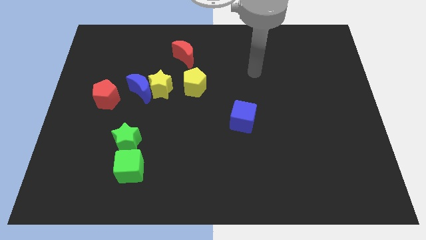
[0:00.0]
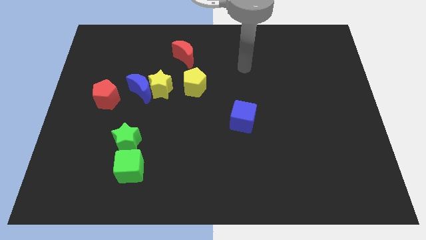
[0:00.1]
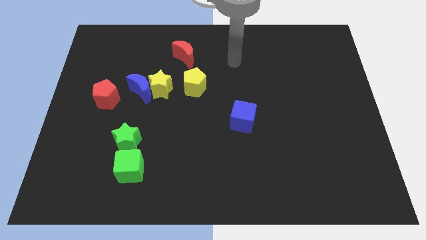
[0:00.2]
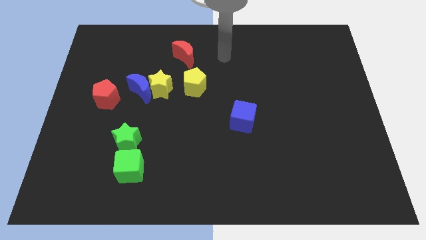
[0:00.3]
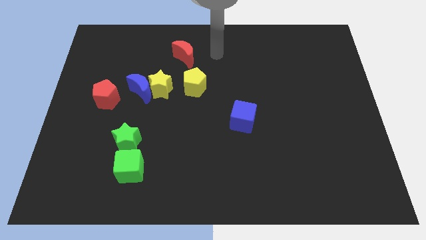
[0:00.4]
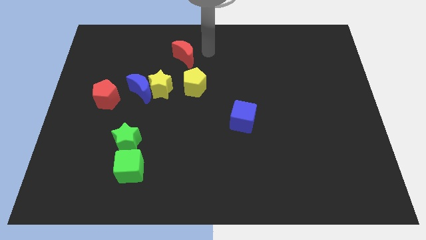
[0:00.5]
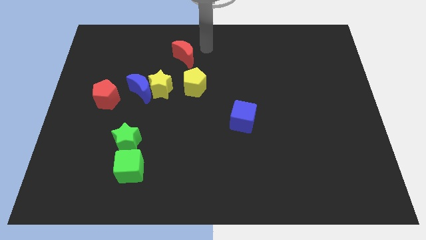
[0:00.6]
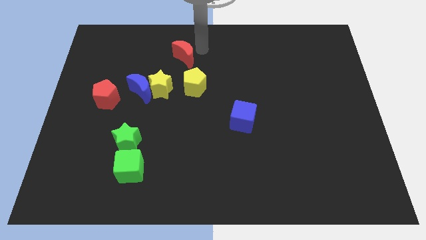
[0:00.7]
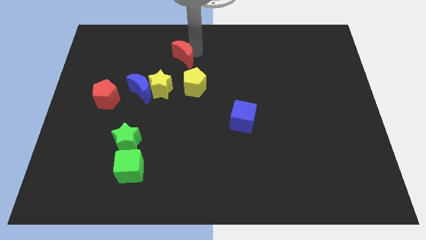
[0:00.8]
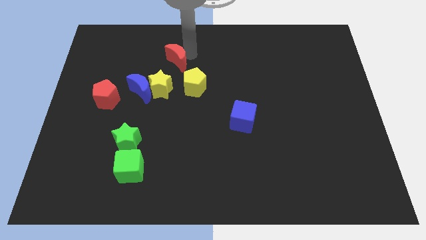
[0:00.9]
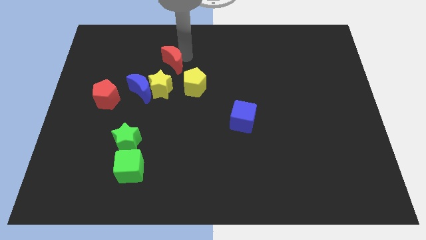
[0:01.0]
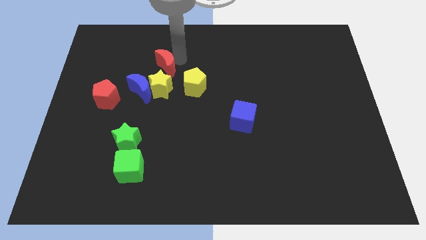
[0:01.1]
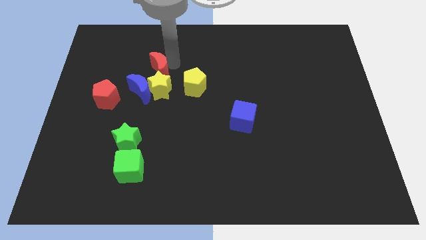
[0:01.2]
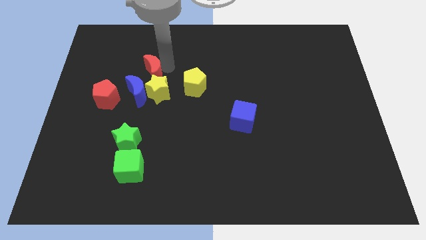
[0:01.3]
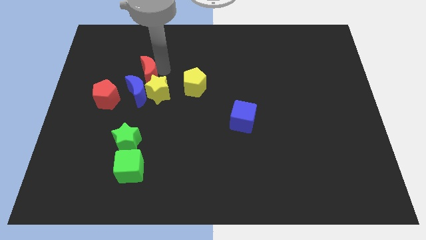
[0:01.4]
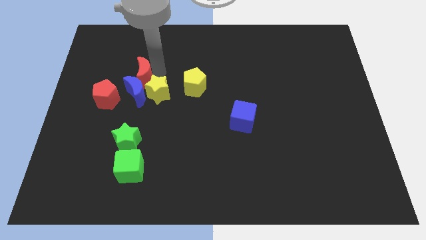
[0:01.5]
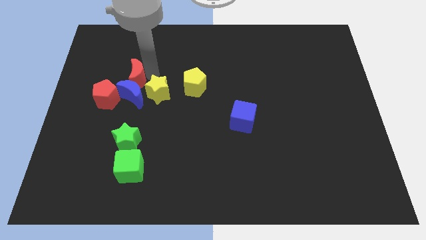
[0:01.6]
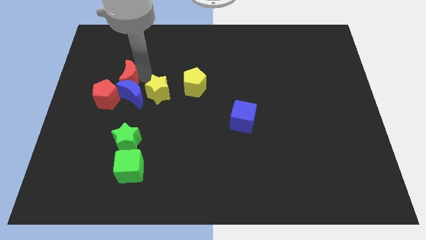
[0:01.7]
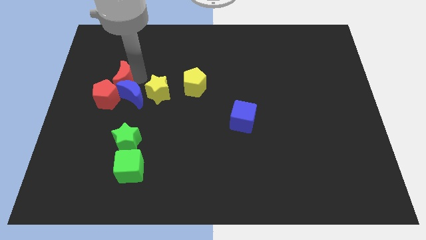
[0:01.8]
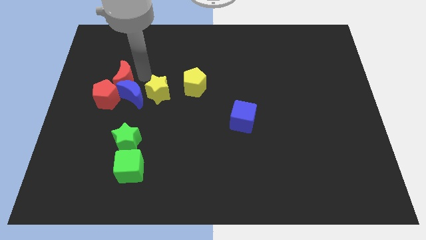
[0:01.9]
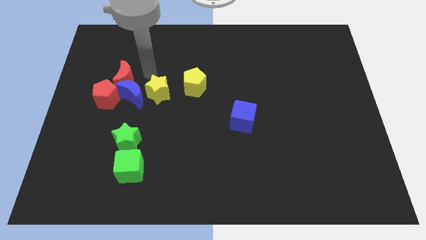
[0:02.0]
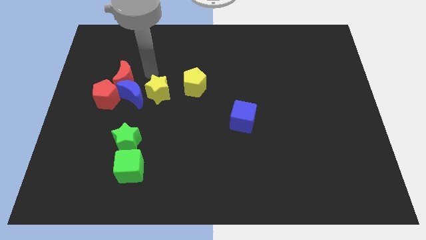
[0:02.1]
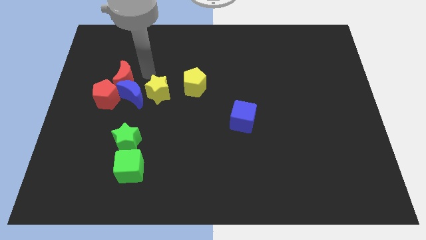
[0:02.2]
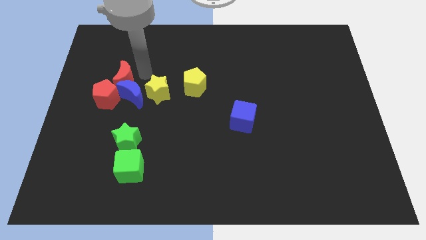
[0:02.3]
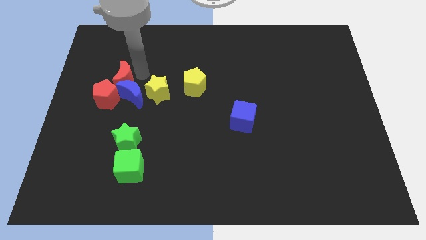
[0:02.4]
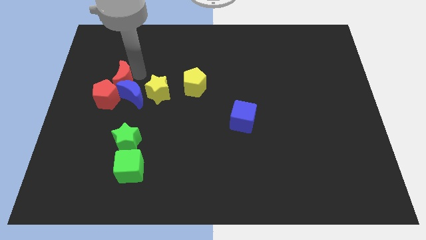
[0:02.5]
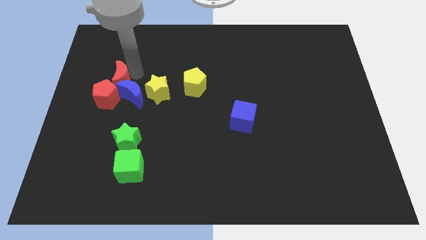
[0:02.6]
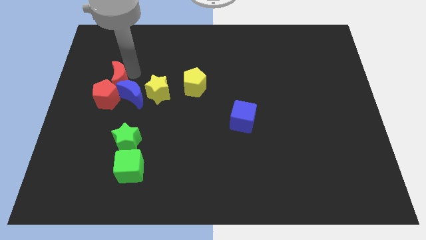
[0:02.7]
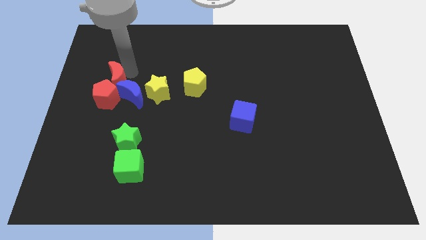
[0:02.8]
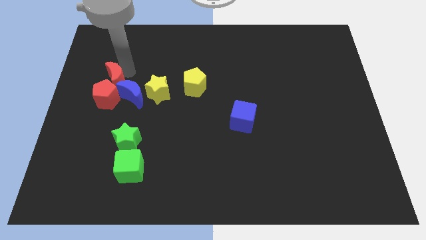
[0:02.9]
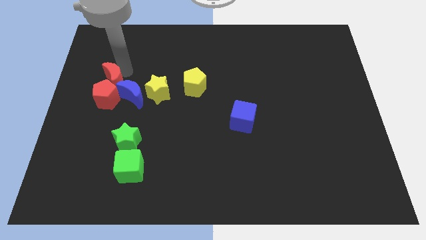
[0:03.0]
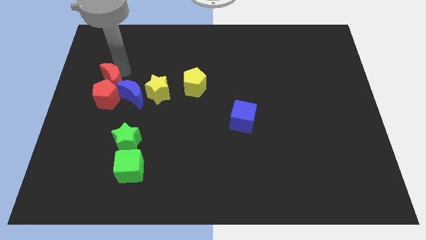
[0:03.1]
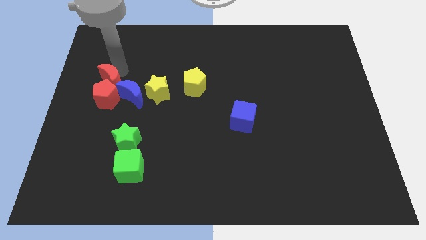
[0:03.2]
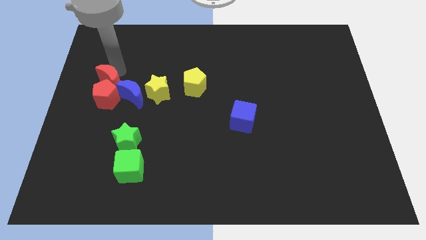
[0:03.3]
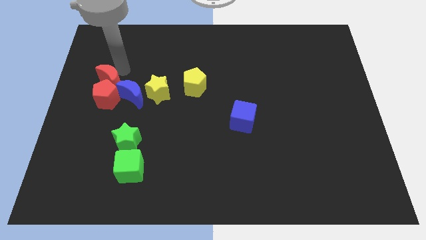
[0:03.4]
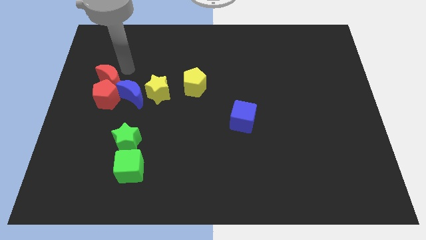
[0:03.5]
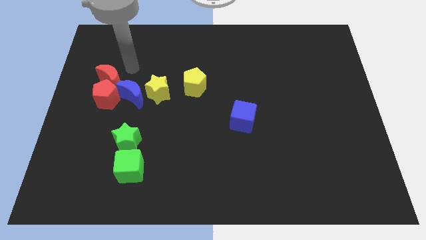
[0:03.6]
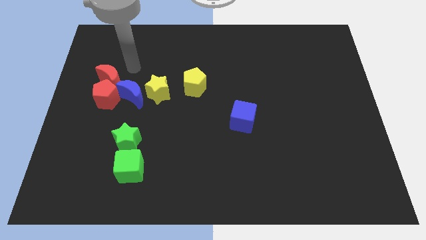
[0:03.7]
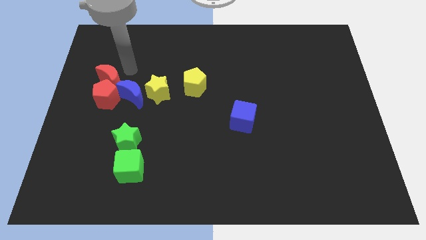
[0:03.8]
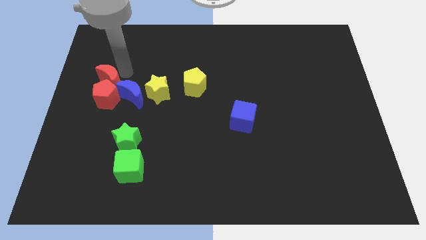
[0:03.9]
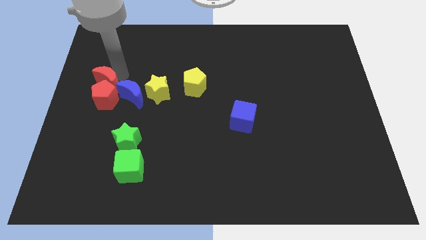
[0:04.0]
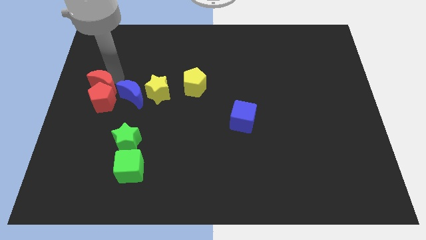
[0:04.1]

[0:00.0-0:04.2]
put the red moon to the center left

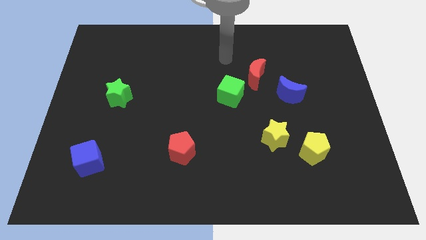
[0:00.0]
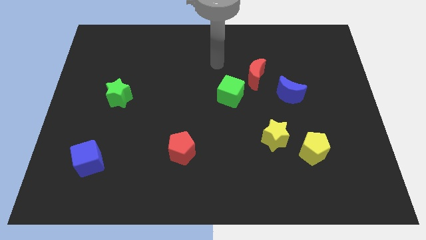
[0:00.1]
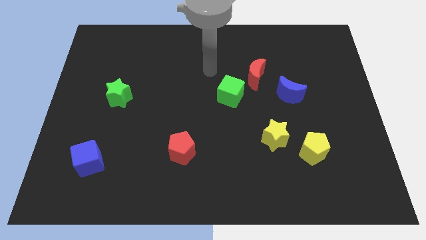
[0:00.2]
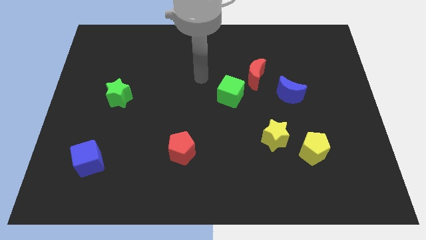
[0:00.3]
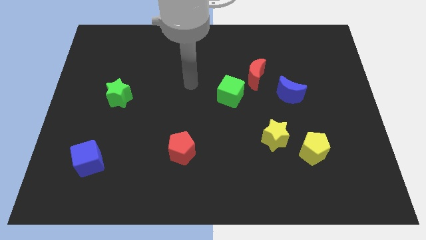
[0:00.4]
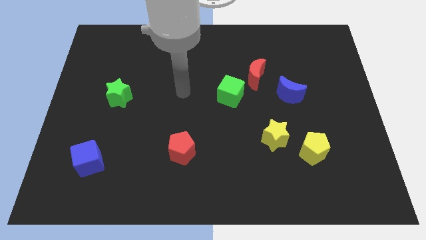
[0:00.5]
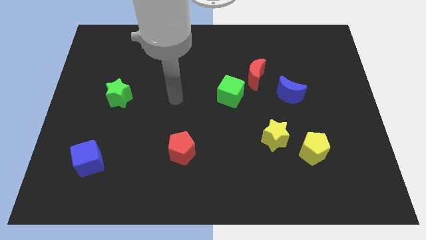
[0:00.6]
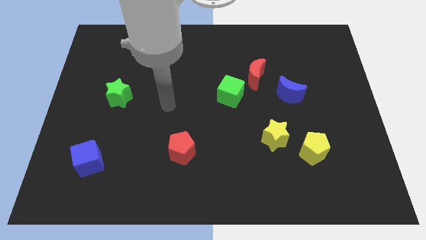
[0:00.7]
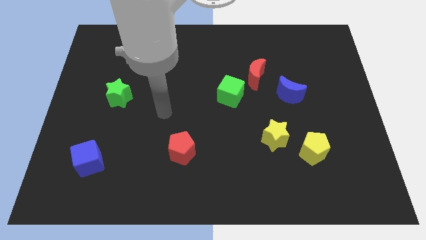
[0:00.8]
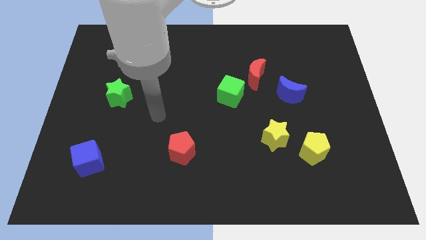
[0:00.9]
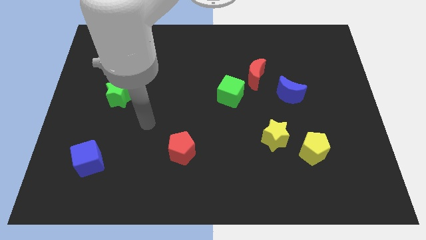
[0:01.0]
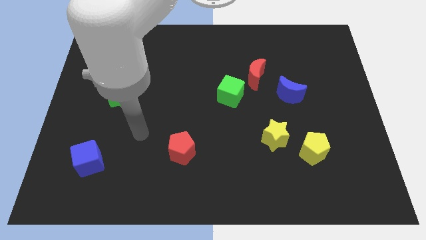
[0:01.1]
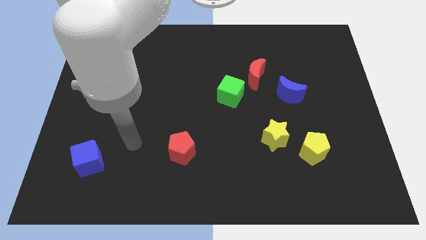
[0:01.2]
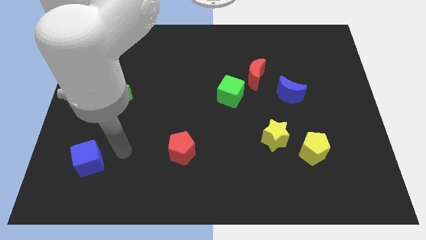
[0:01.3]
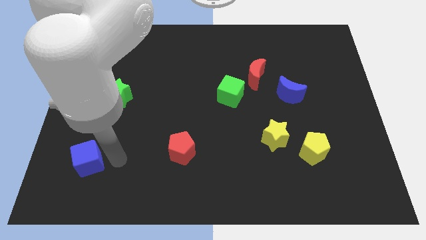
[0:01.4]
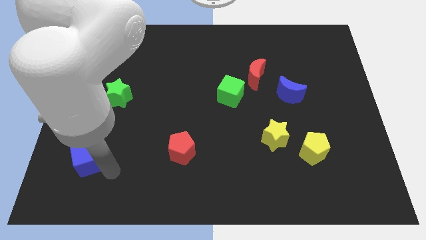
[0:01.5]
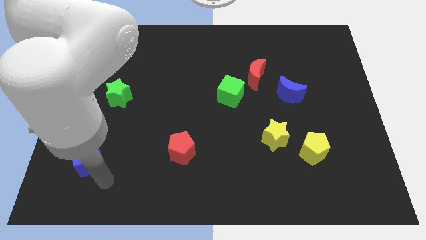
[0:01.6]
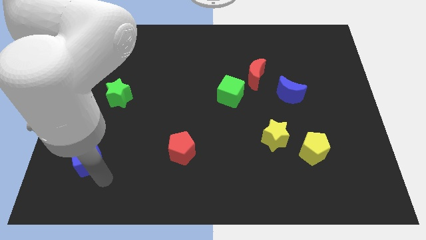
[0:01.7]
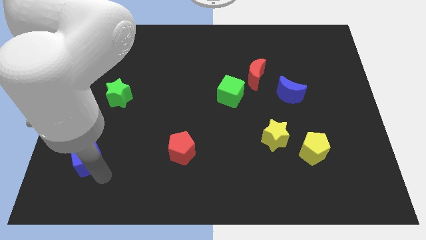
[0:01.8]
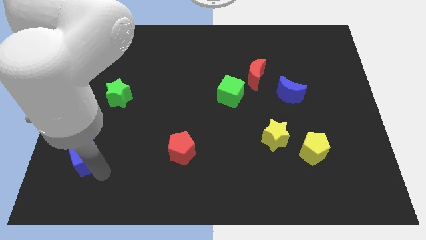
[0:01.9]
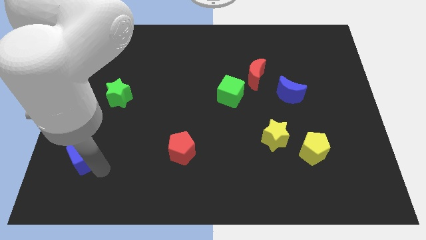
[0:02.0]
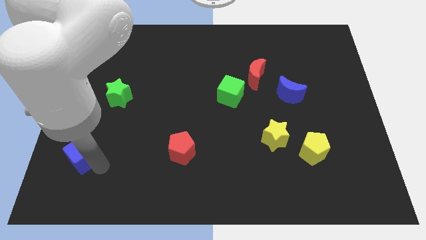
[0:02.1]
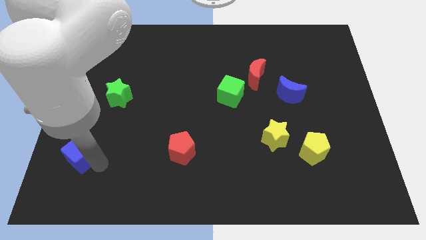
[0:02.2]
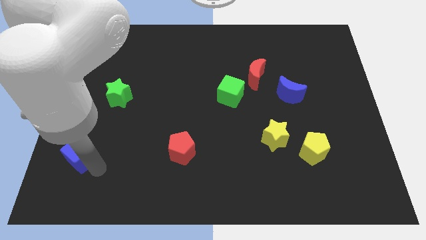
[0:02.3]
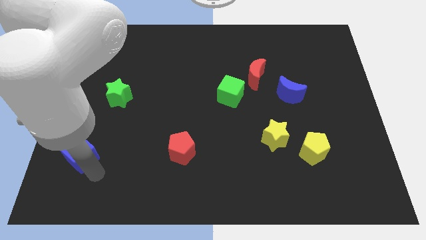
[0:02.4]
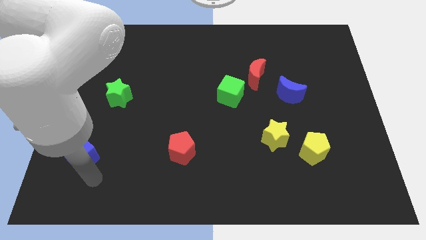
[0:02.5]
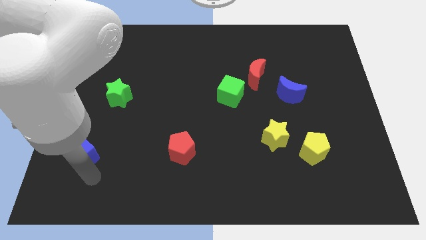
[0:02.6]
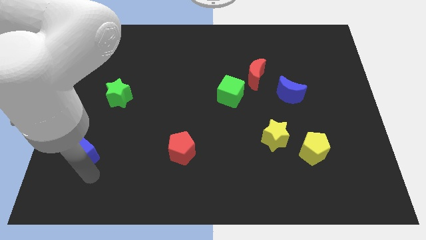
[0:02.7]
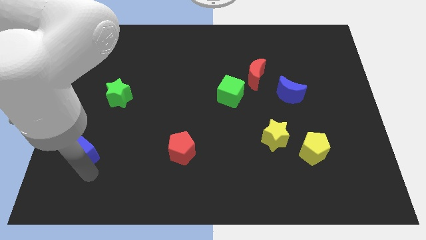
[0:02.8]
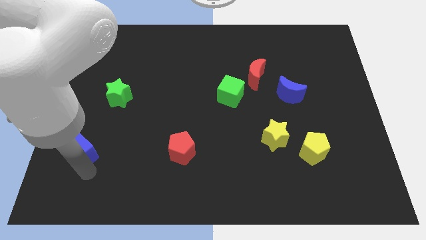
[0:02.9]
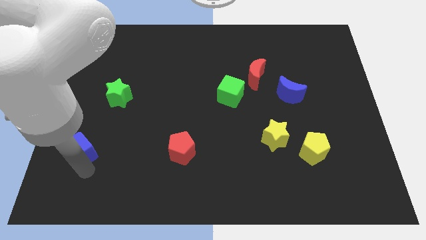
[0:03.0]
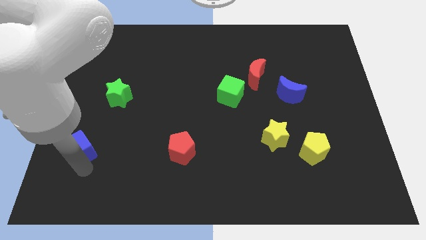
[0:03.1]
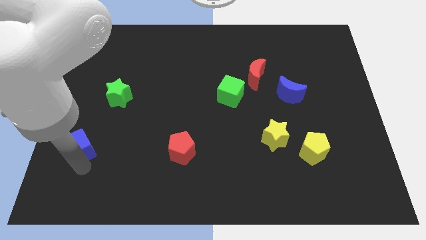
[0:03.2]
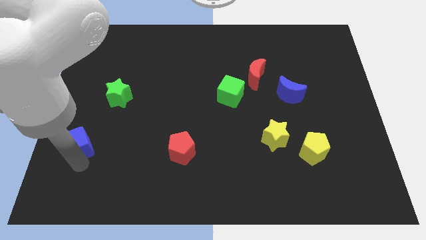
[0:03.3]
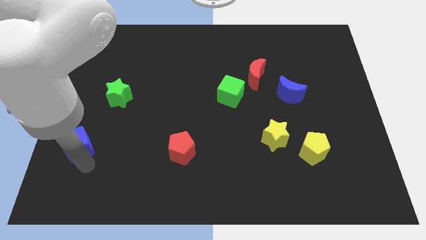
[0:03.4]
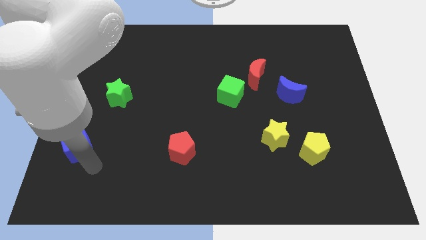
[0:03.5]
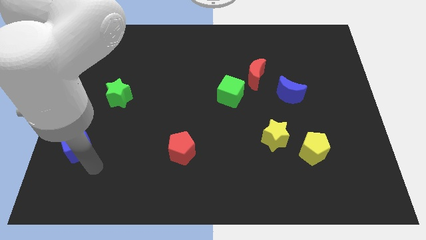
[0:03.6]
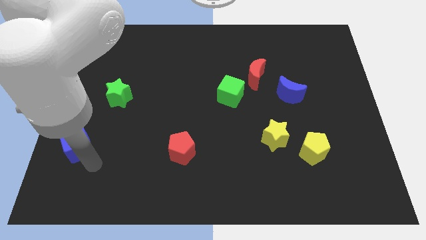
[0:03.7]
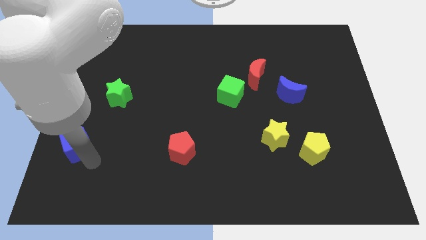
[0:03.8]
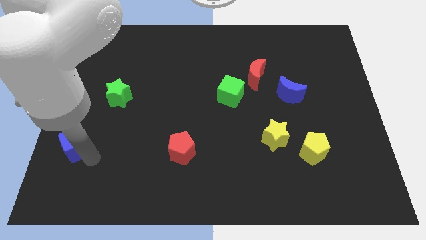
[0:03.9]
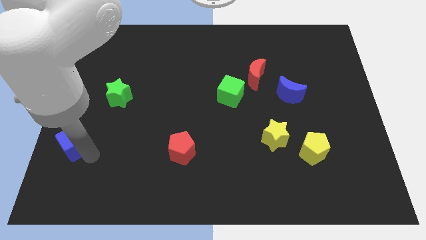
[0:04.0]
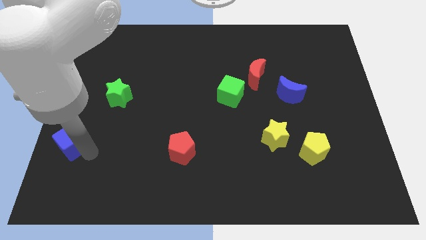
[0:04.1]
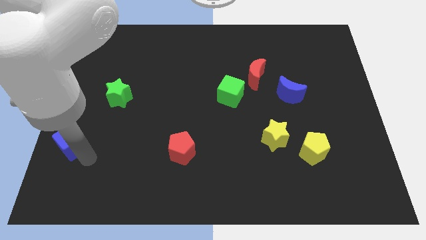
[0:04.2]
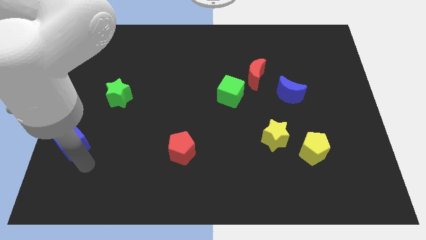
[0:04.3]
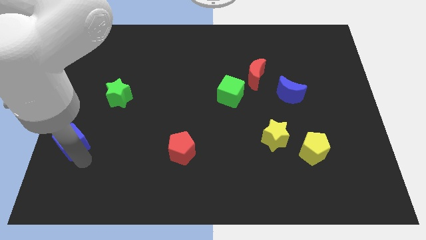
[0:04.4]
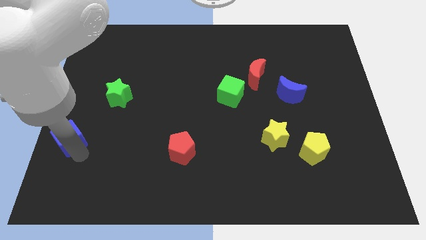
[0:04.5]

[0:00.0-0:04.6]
move the blue cube to the left side
